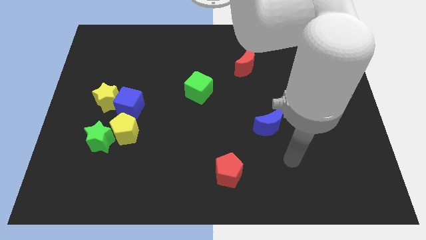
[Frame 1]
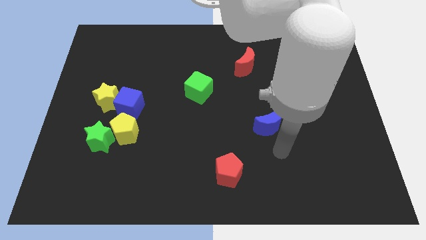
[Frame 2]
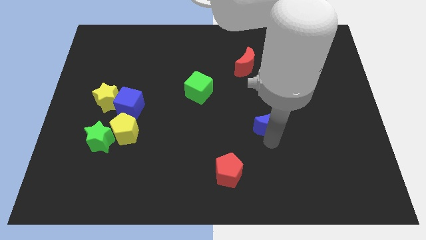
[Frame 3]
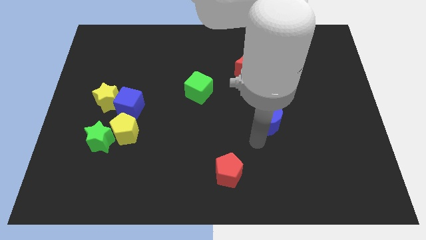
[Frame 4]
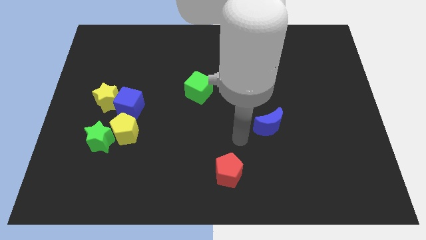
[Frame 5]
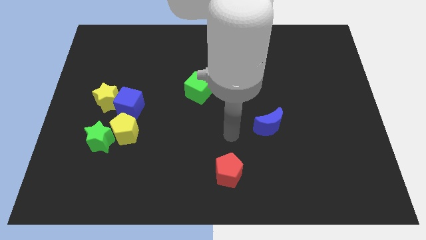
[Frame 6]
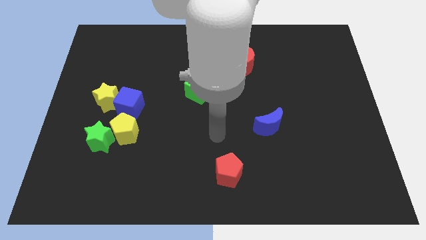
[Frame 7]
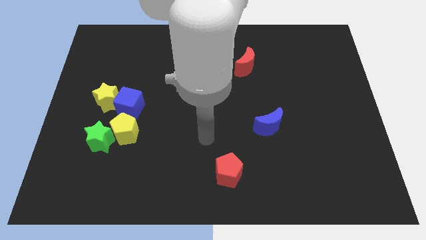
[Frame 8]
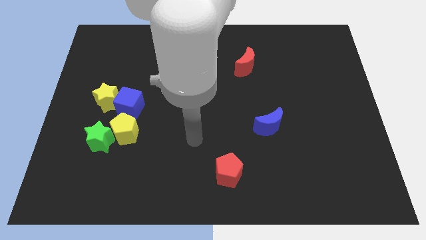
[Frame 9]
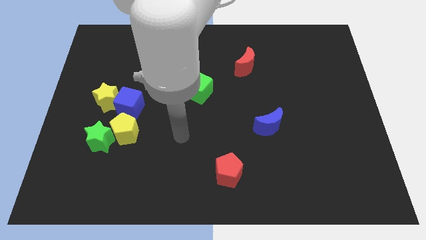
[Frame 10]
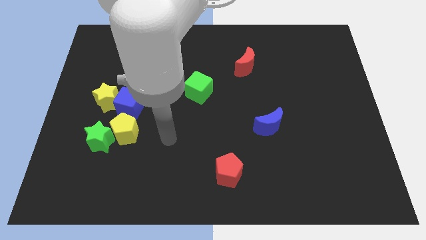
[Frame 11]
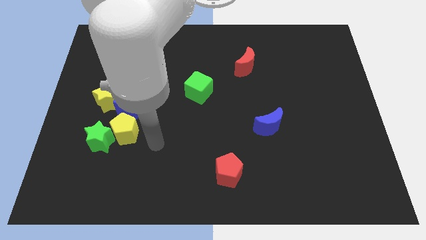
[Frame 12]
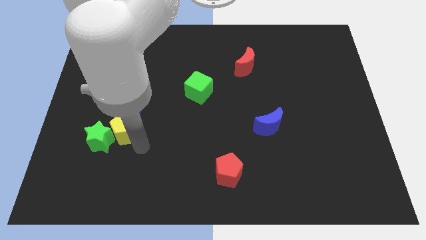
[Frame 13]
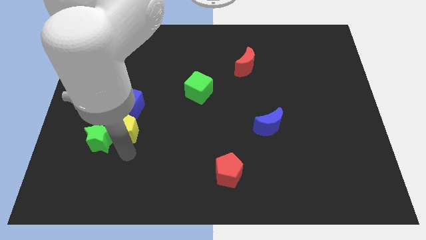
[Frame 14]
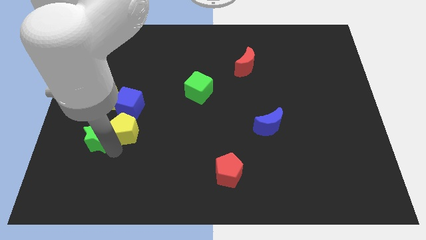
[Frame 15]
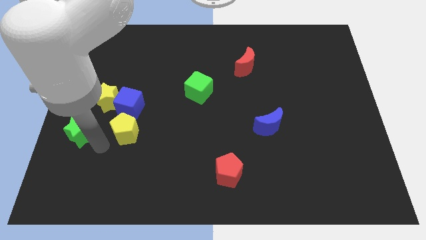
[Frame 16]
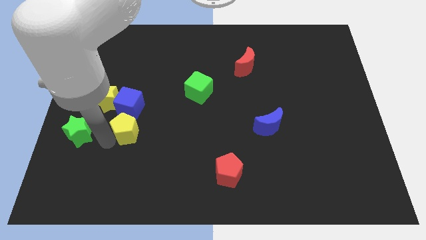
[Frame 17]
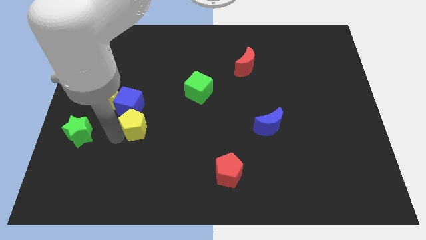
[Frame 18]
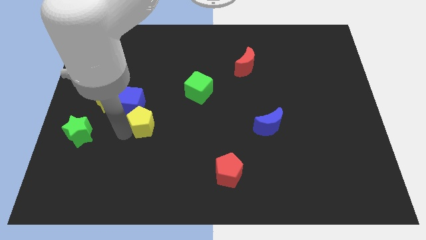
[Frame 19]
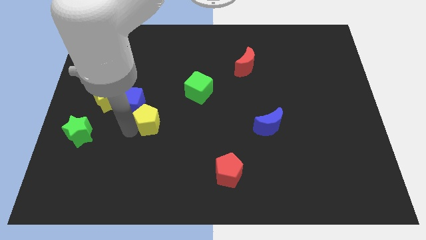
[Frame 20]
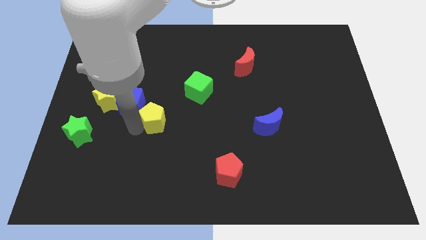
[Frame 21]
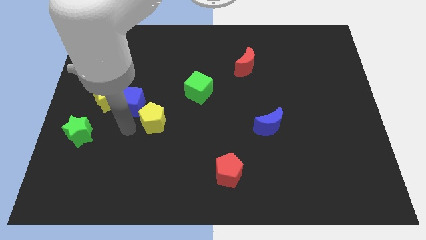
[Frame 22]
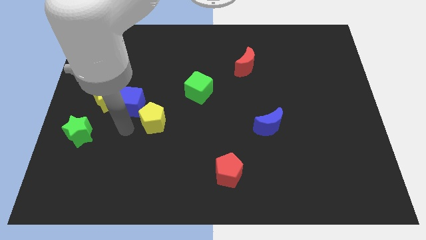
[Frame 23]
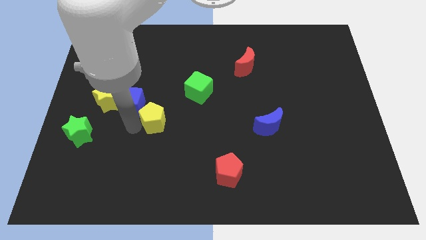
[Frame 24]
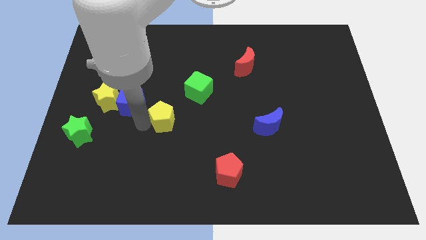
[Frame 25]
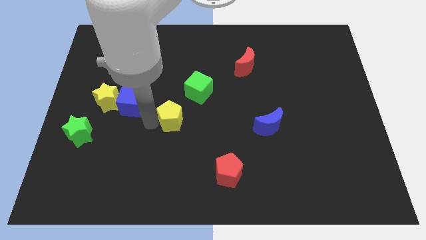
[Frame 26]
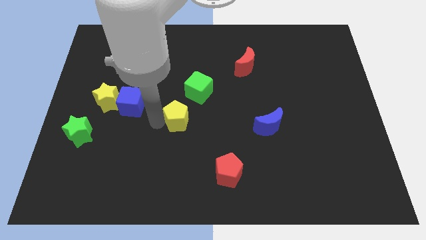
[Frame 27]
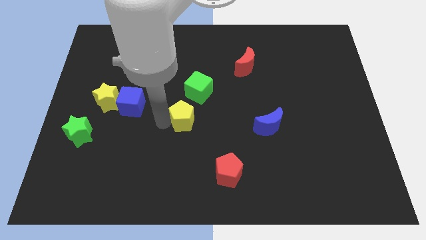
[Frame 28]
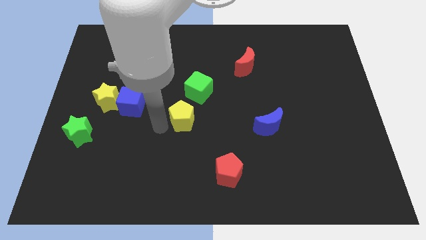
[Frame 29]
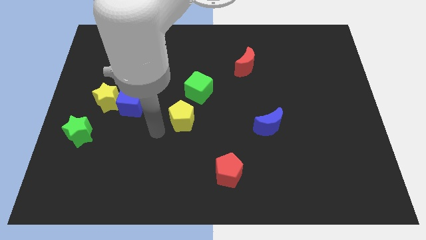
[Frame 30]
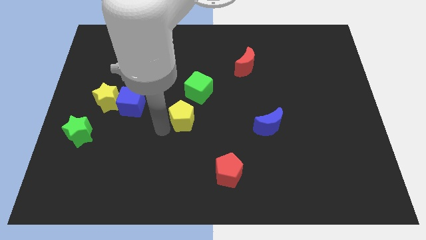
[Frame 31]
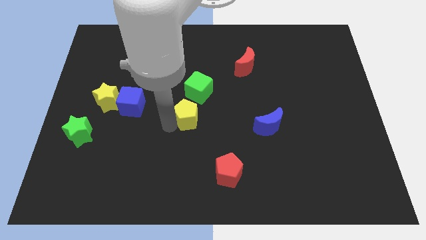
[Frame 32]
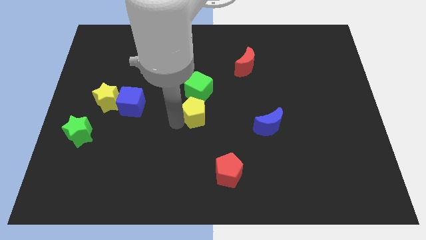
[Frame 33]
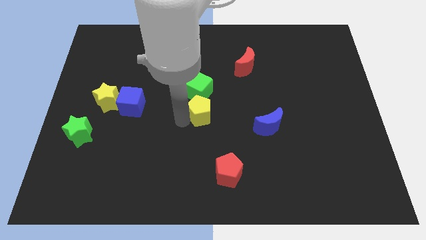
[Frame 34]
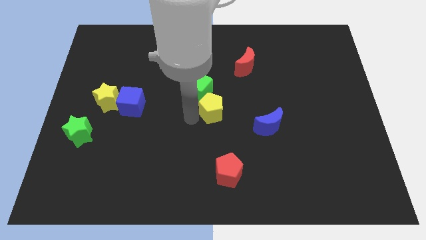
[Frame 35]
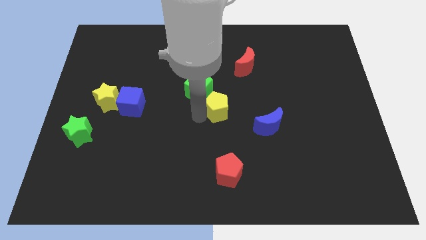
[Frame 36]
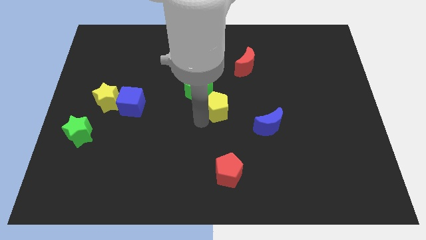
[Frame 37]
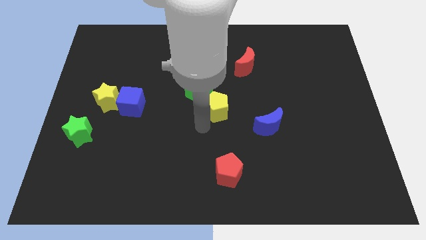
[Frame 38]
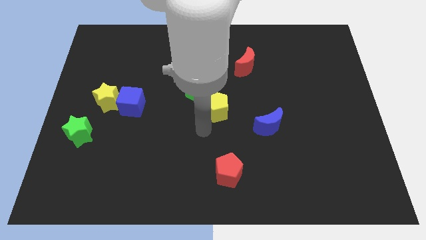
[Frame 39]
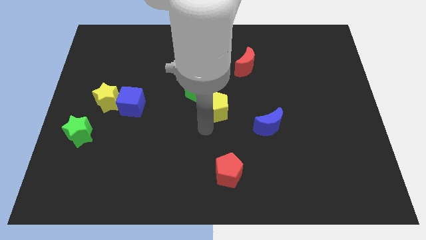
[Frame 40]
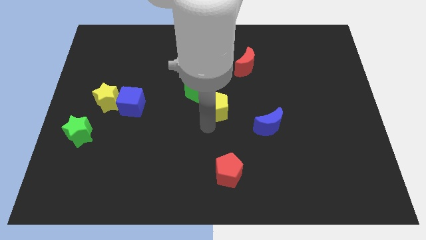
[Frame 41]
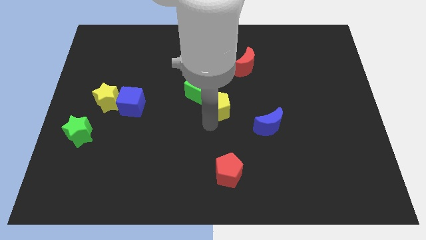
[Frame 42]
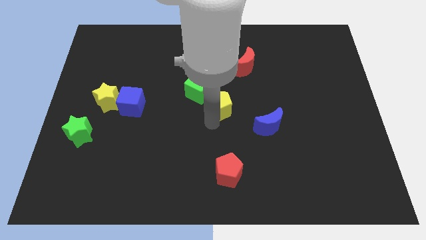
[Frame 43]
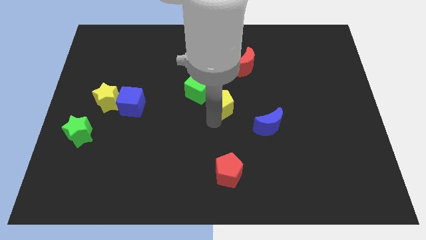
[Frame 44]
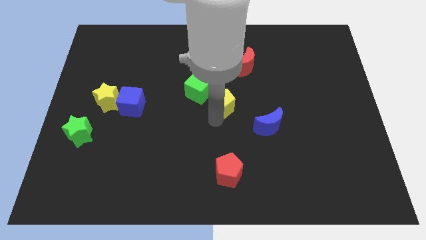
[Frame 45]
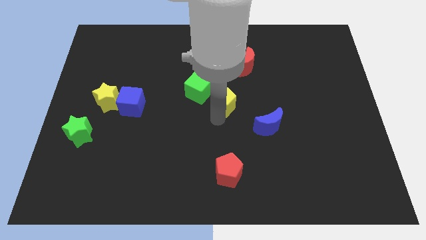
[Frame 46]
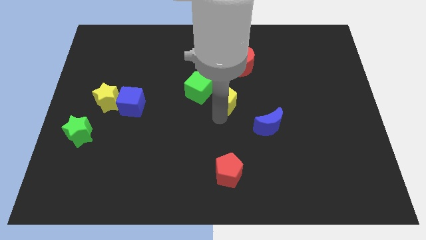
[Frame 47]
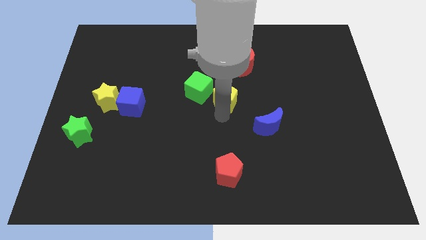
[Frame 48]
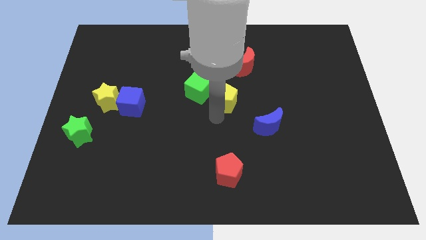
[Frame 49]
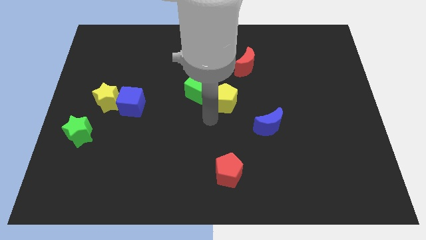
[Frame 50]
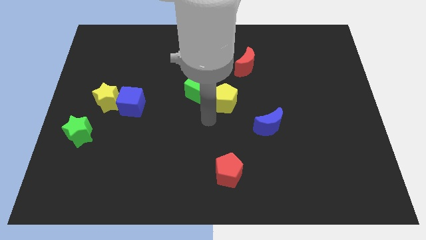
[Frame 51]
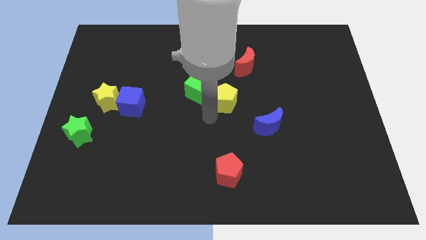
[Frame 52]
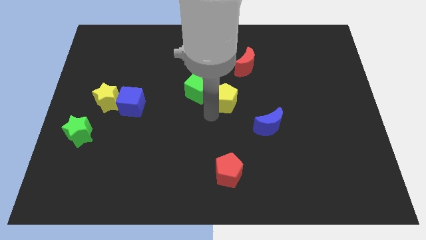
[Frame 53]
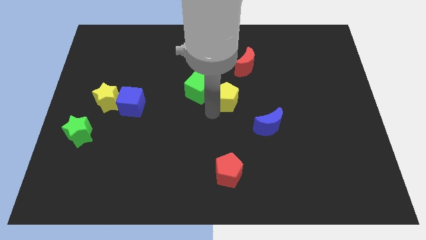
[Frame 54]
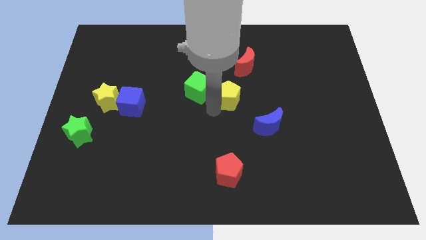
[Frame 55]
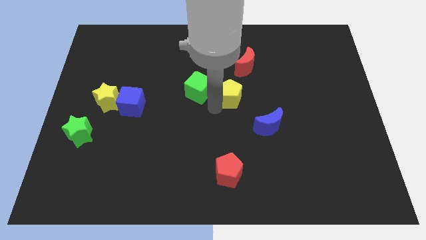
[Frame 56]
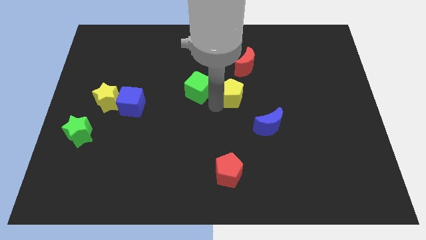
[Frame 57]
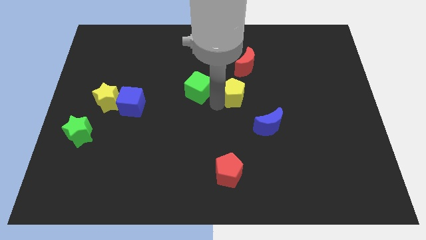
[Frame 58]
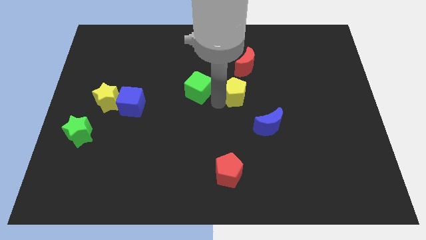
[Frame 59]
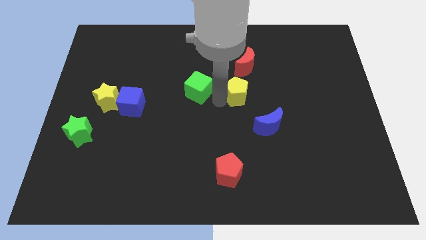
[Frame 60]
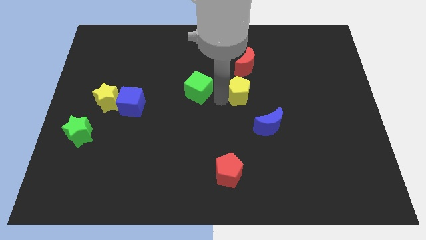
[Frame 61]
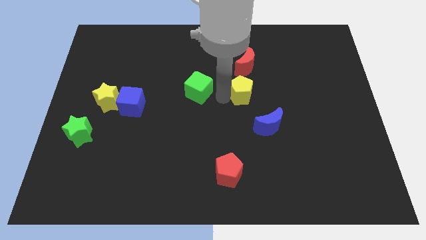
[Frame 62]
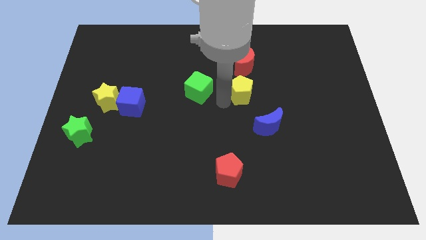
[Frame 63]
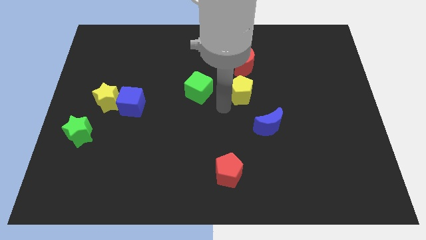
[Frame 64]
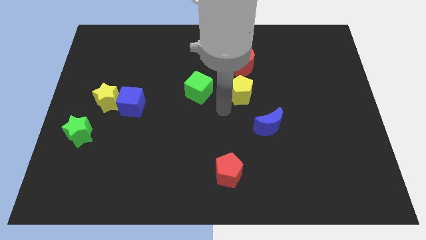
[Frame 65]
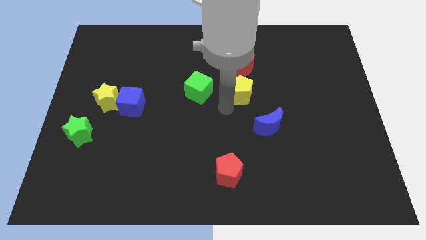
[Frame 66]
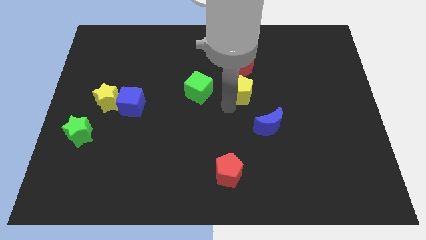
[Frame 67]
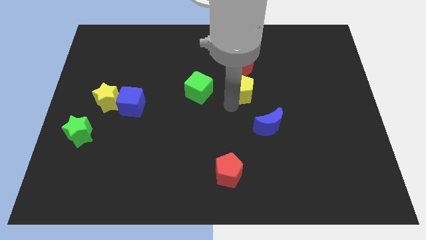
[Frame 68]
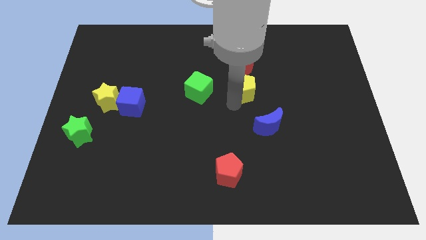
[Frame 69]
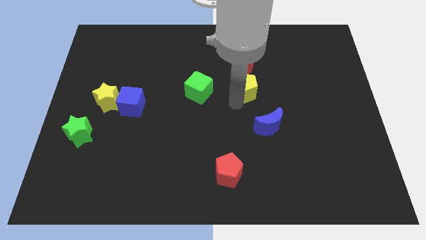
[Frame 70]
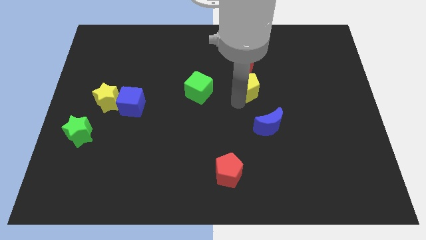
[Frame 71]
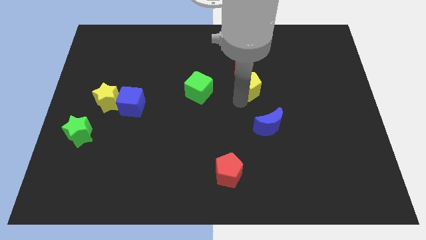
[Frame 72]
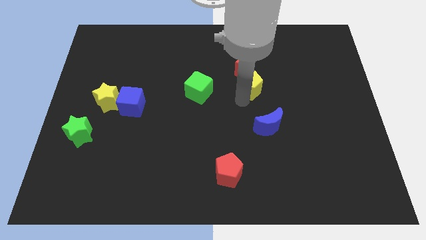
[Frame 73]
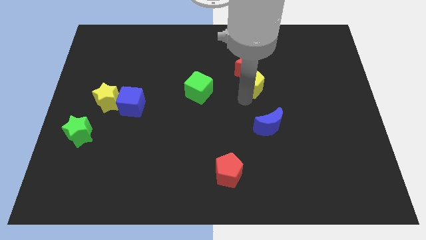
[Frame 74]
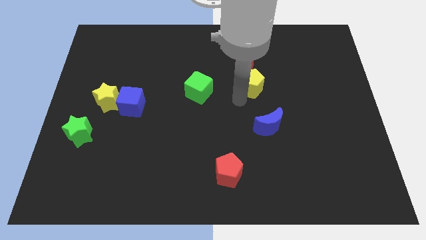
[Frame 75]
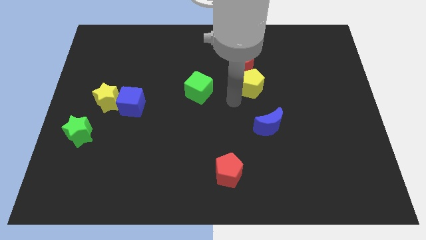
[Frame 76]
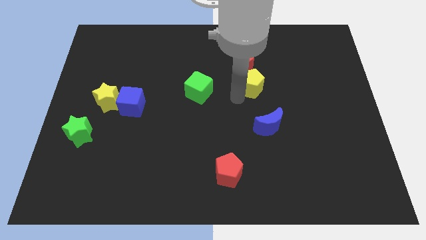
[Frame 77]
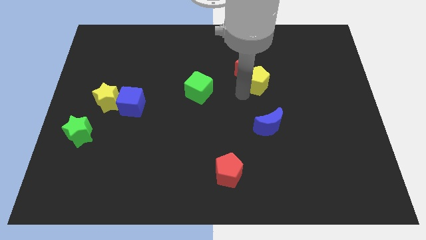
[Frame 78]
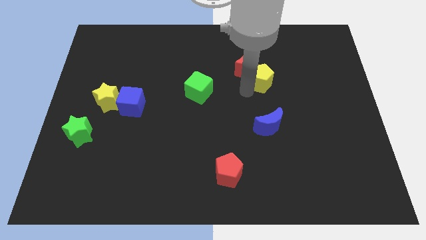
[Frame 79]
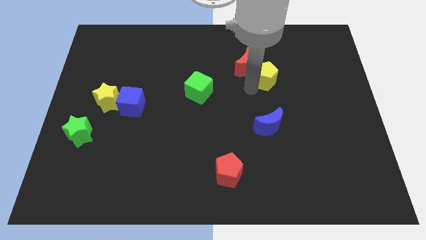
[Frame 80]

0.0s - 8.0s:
push the yellow pentagon just right of the red moon
